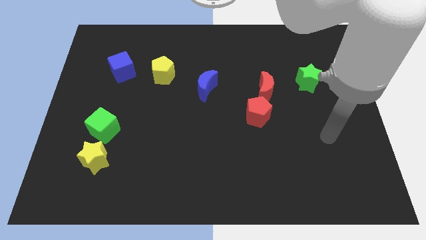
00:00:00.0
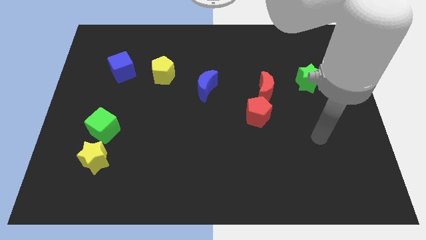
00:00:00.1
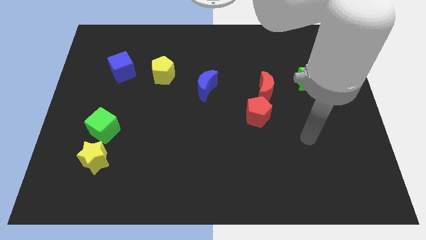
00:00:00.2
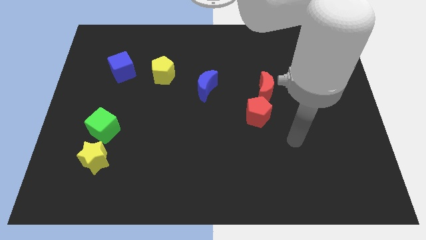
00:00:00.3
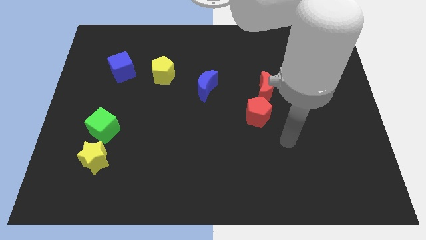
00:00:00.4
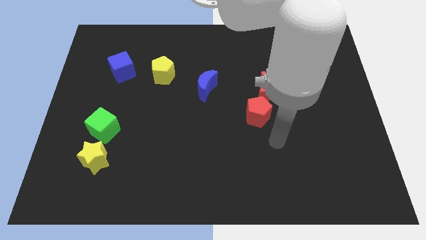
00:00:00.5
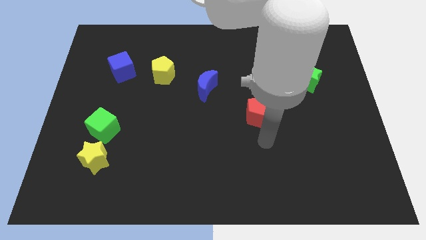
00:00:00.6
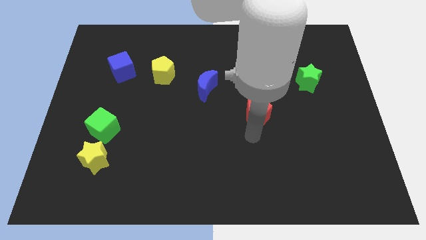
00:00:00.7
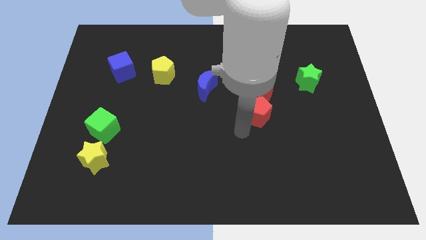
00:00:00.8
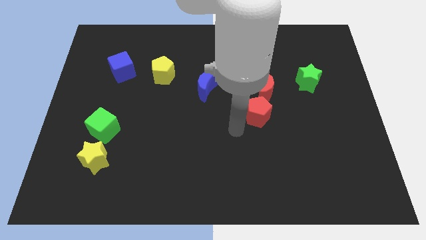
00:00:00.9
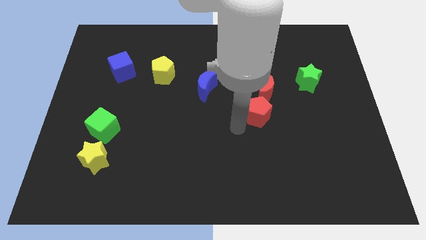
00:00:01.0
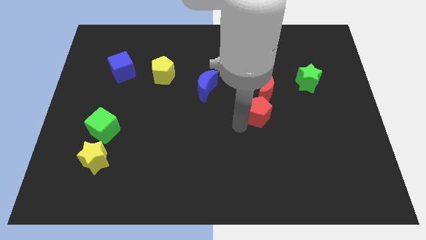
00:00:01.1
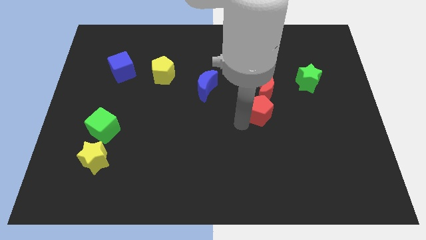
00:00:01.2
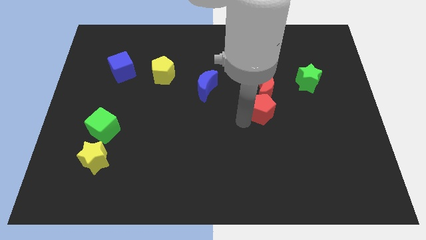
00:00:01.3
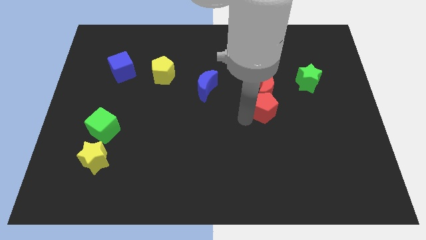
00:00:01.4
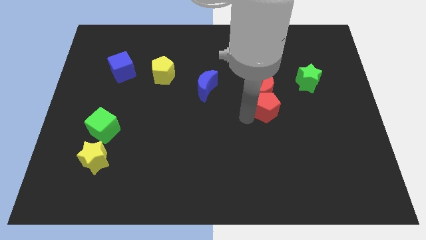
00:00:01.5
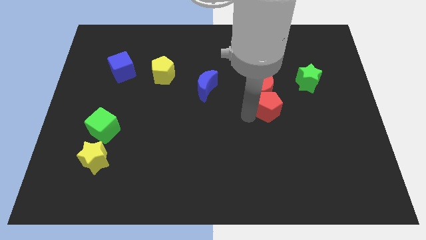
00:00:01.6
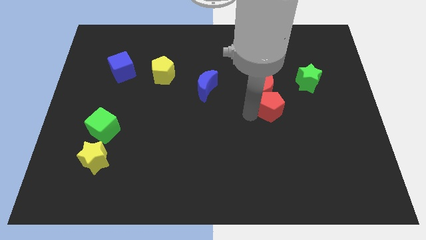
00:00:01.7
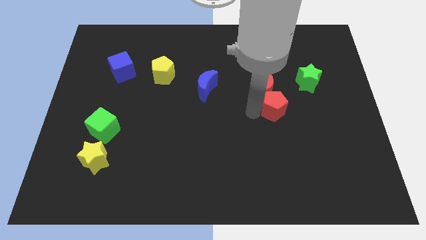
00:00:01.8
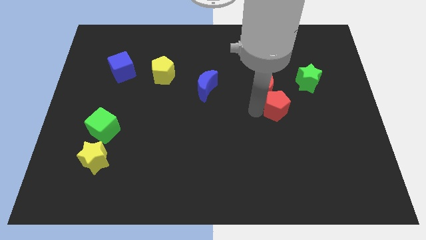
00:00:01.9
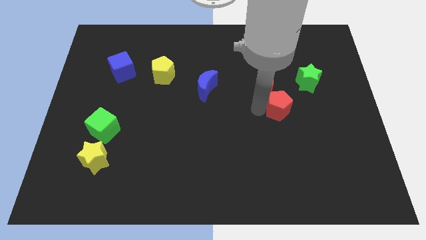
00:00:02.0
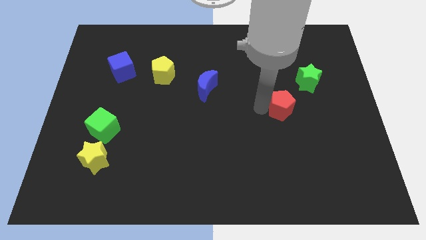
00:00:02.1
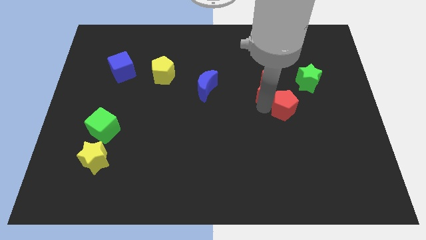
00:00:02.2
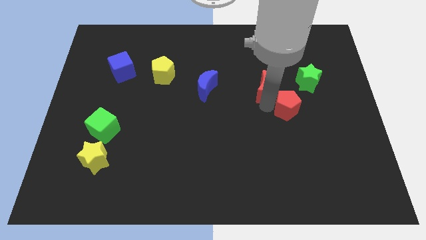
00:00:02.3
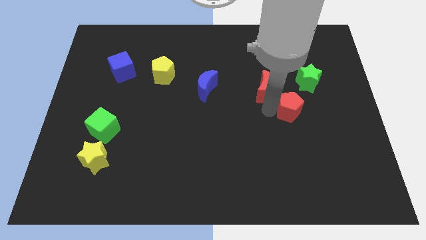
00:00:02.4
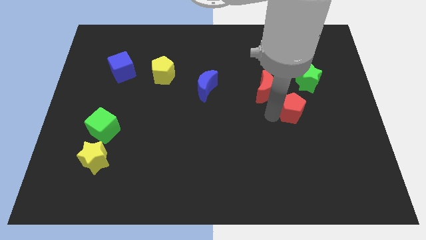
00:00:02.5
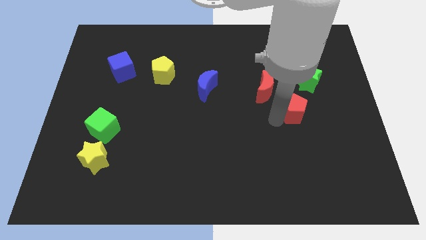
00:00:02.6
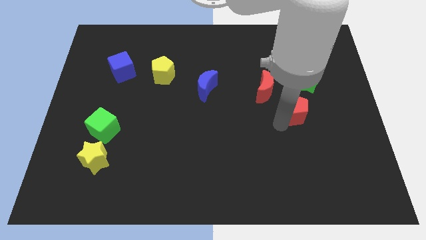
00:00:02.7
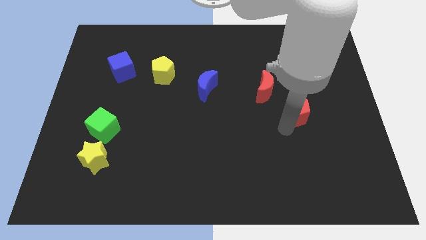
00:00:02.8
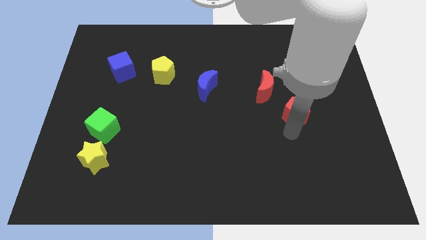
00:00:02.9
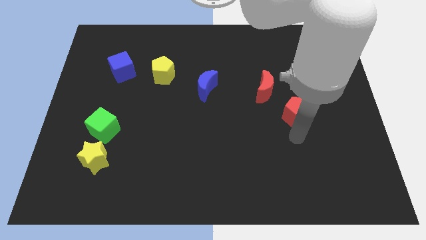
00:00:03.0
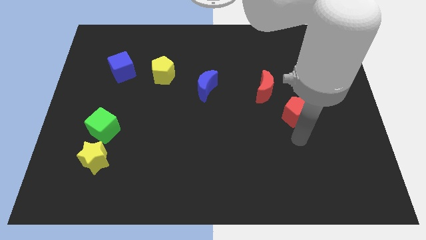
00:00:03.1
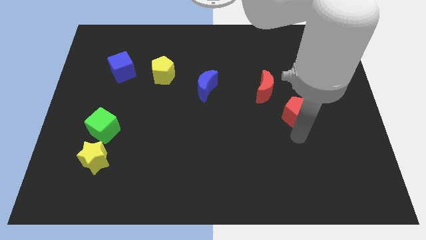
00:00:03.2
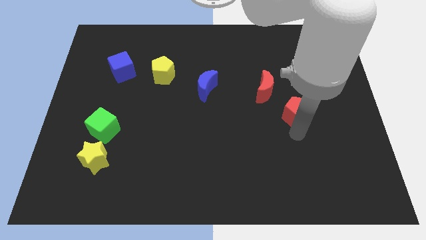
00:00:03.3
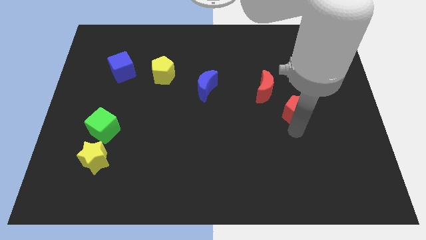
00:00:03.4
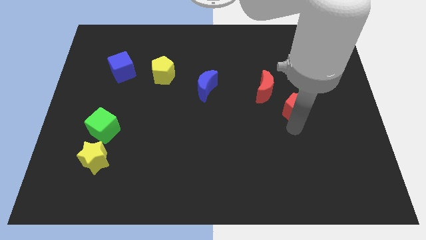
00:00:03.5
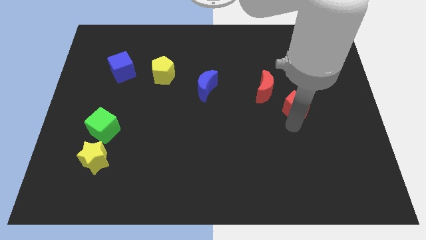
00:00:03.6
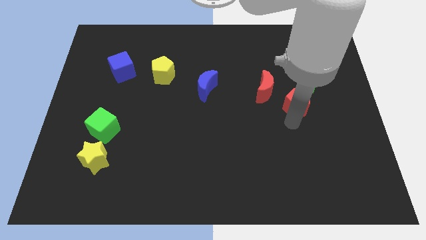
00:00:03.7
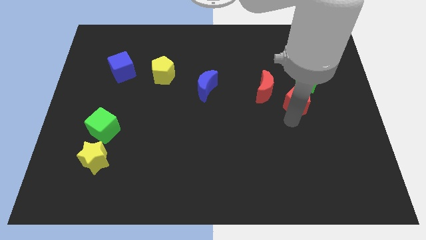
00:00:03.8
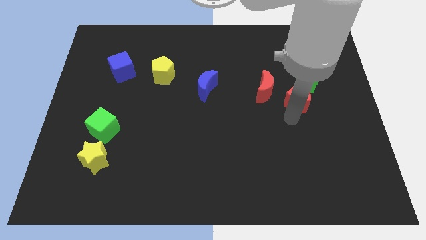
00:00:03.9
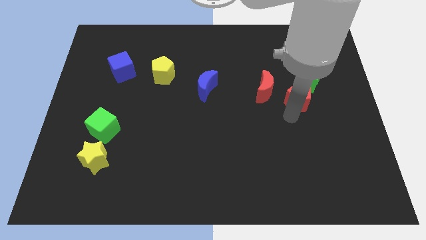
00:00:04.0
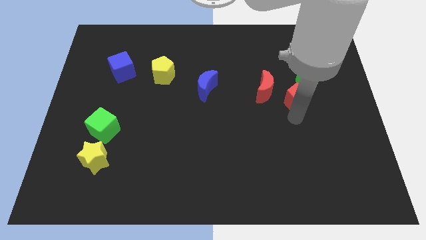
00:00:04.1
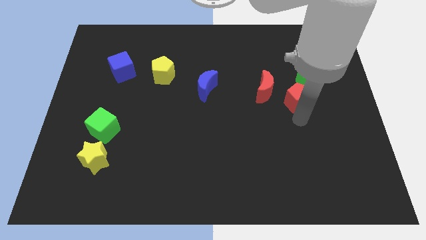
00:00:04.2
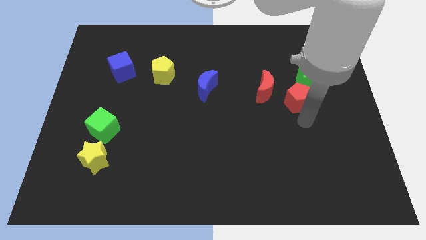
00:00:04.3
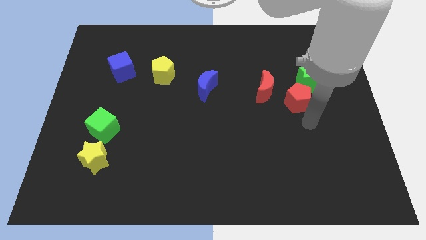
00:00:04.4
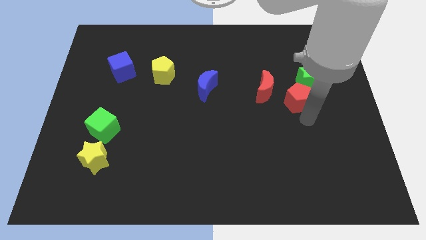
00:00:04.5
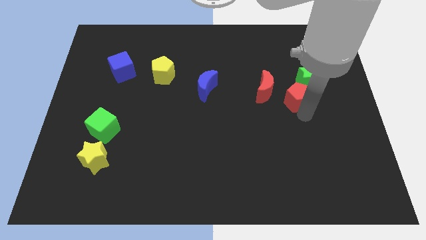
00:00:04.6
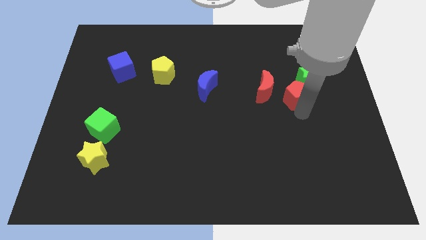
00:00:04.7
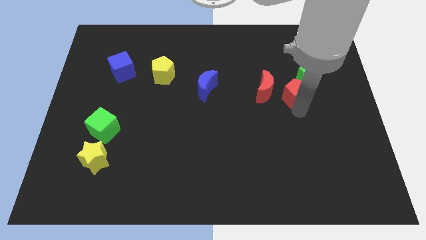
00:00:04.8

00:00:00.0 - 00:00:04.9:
put the red pentagon towards the green star

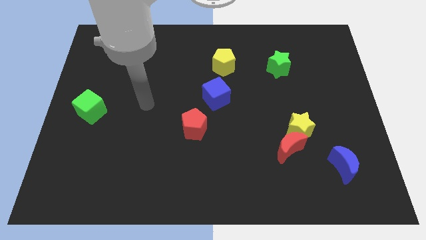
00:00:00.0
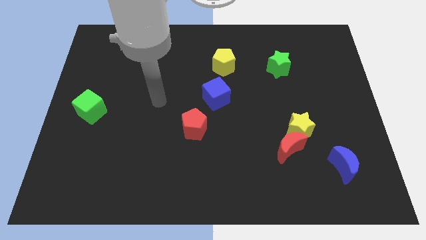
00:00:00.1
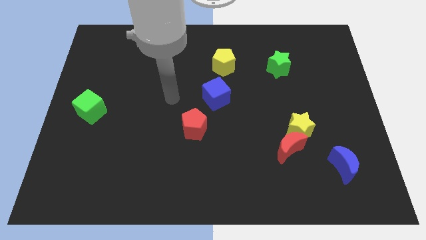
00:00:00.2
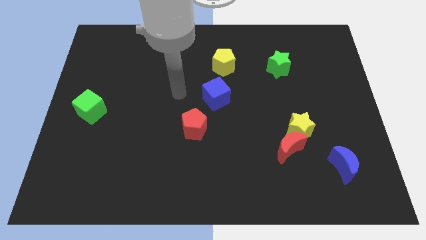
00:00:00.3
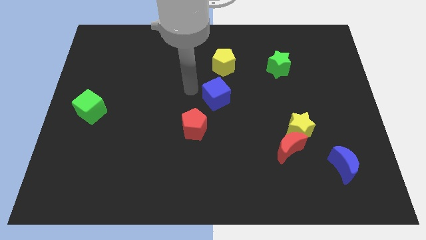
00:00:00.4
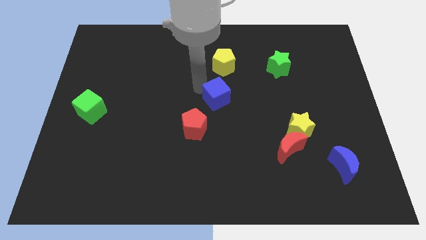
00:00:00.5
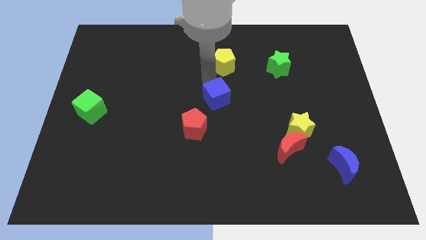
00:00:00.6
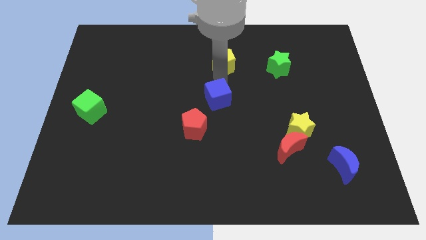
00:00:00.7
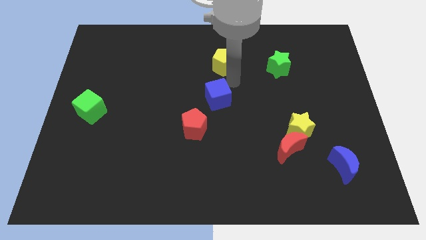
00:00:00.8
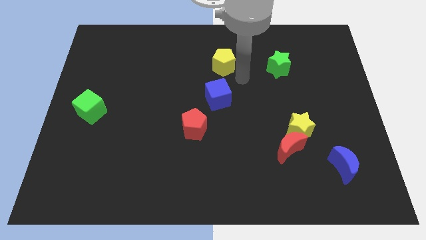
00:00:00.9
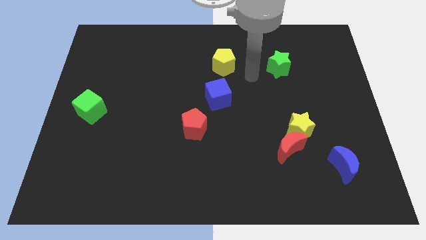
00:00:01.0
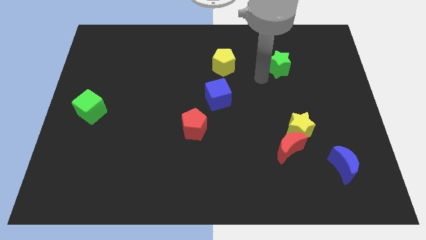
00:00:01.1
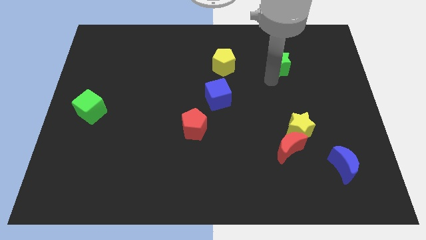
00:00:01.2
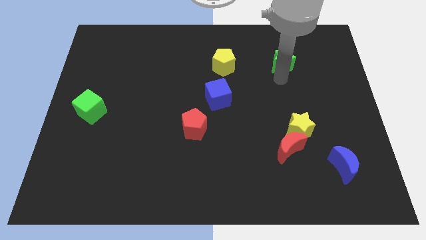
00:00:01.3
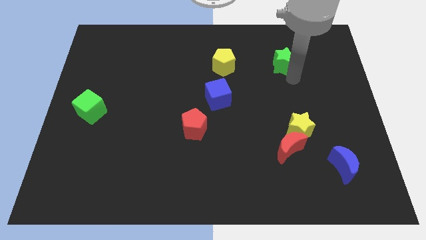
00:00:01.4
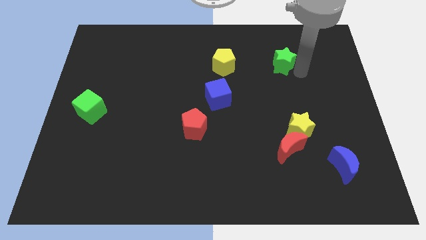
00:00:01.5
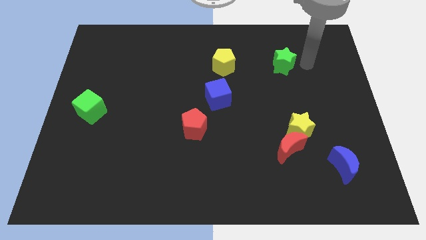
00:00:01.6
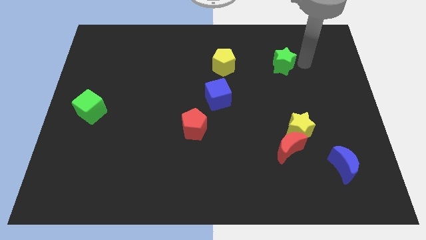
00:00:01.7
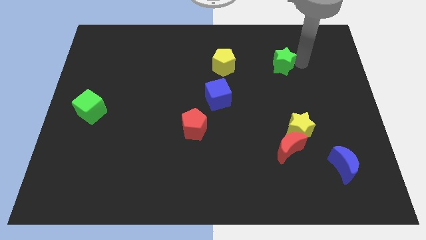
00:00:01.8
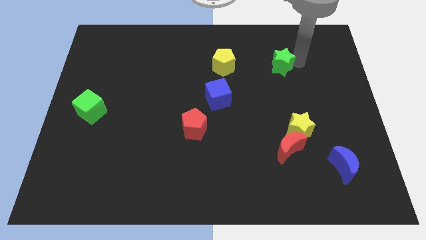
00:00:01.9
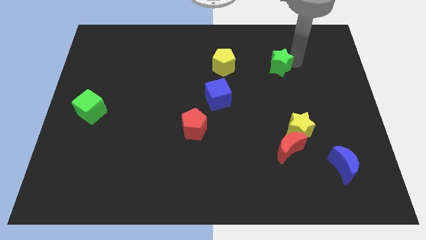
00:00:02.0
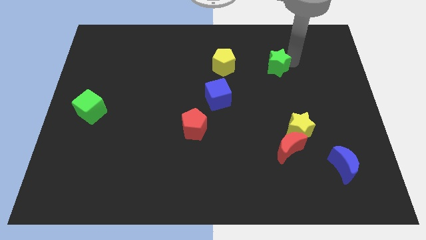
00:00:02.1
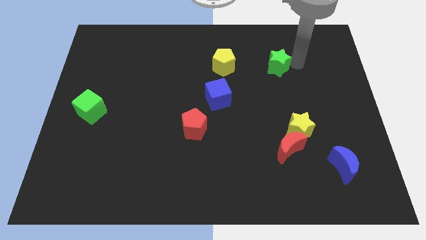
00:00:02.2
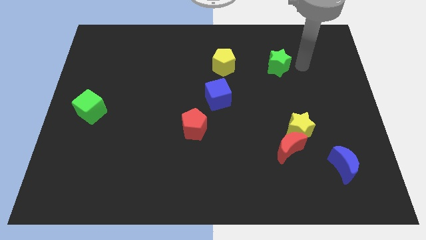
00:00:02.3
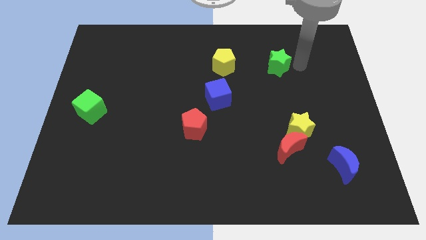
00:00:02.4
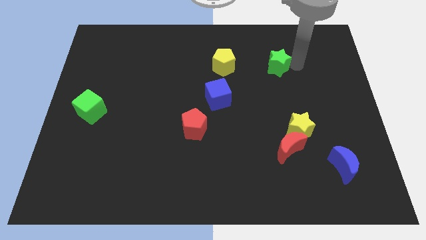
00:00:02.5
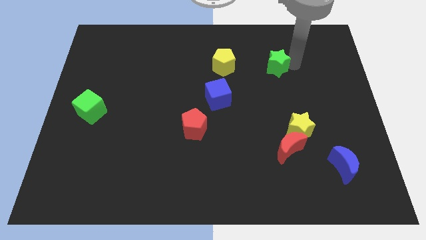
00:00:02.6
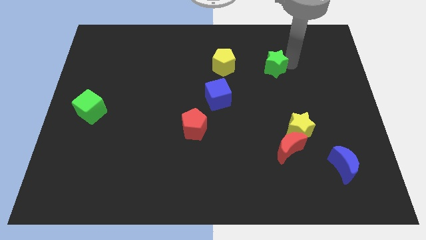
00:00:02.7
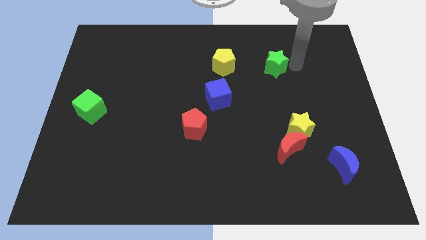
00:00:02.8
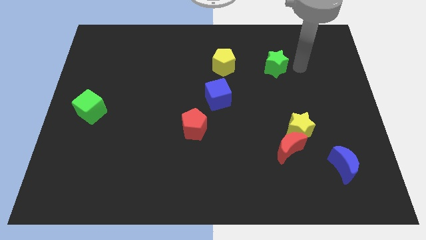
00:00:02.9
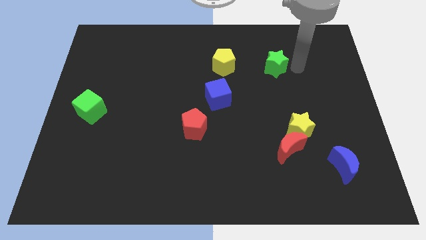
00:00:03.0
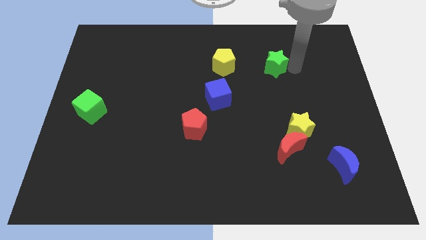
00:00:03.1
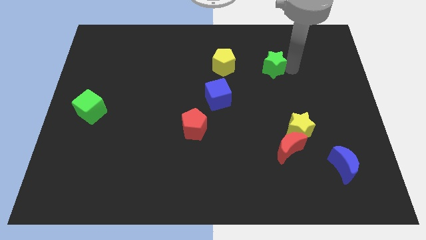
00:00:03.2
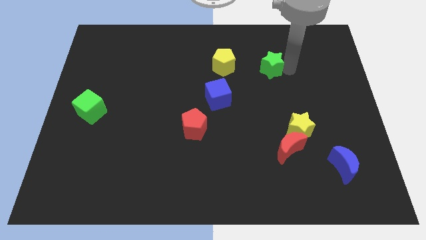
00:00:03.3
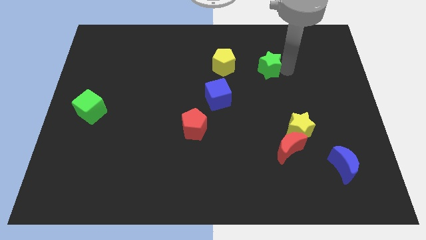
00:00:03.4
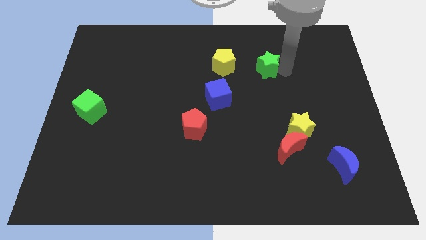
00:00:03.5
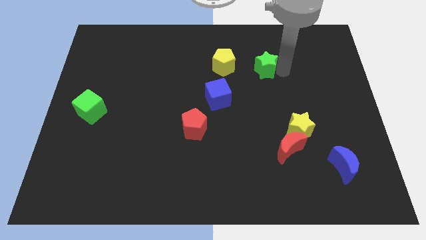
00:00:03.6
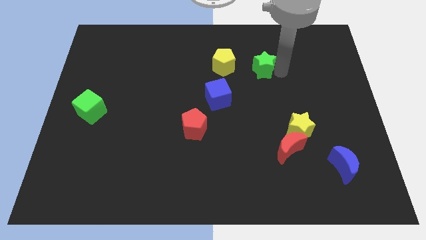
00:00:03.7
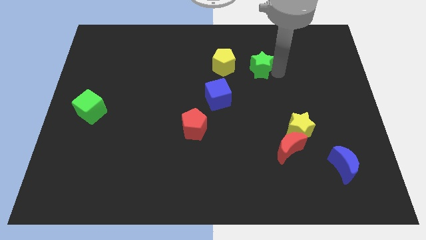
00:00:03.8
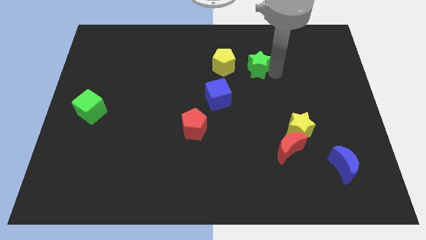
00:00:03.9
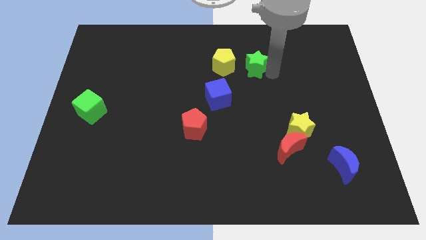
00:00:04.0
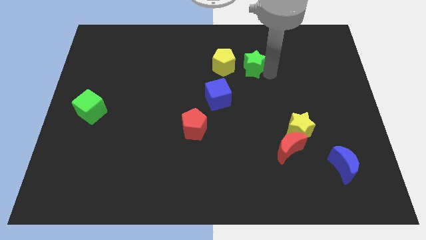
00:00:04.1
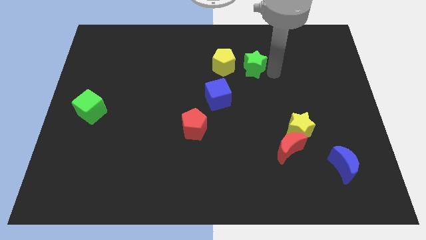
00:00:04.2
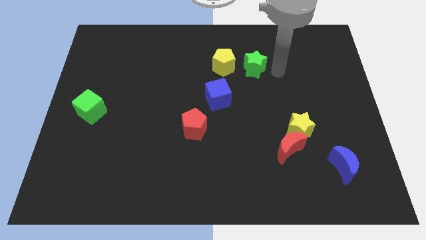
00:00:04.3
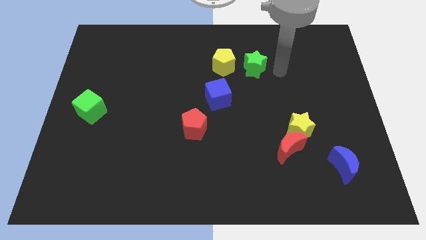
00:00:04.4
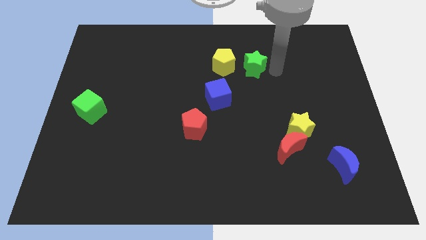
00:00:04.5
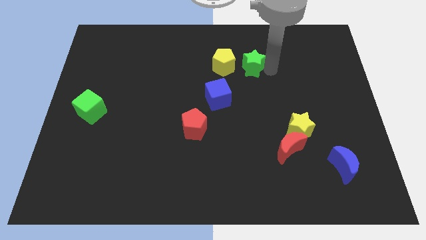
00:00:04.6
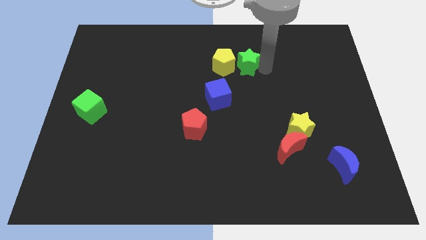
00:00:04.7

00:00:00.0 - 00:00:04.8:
slide the green star next to the yellow pentagon
